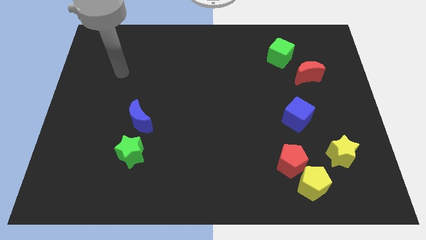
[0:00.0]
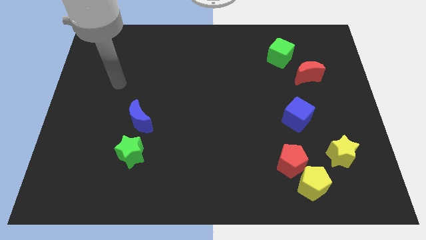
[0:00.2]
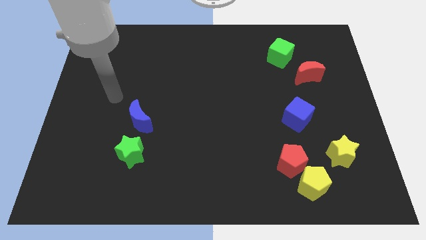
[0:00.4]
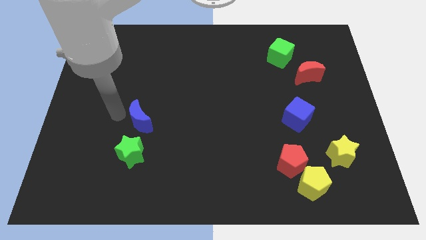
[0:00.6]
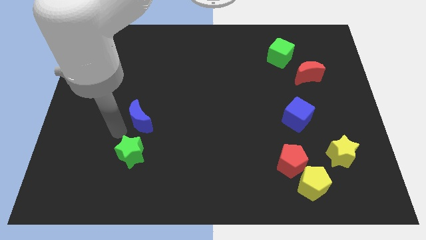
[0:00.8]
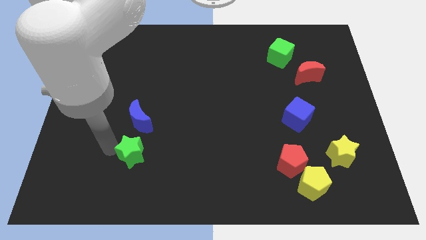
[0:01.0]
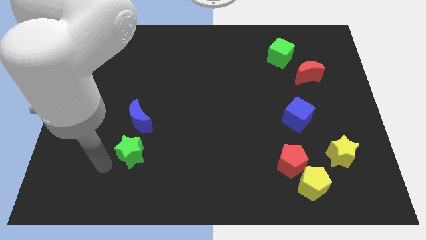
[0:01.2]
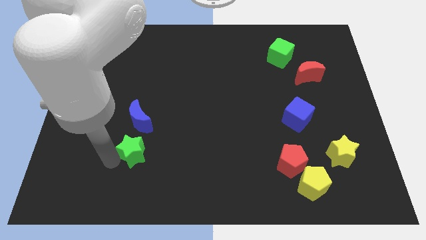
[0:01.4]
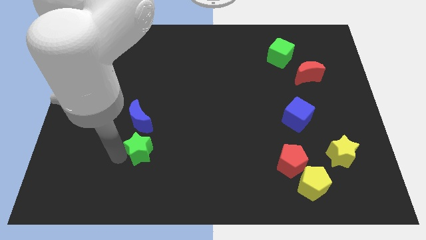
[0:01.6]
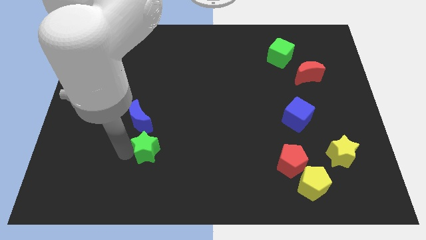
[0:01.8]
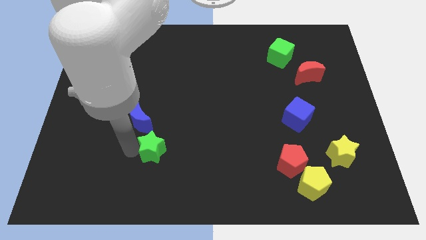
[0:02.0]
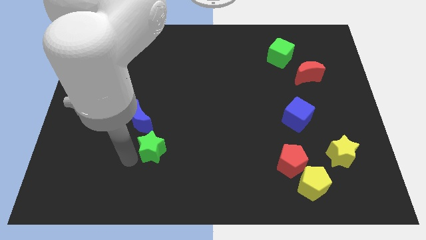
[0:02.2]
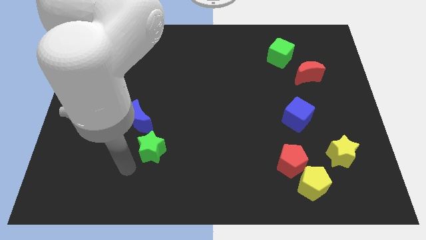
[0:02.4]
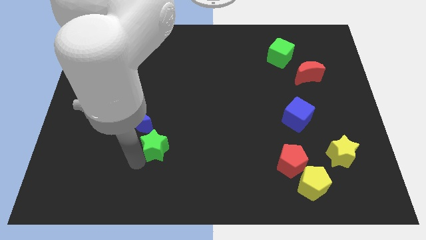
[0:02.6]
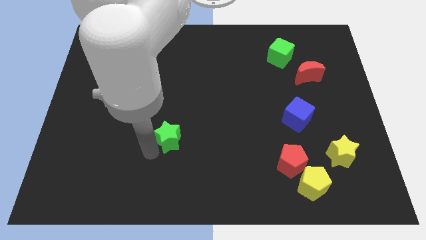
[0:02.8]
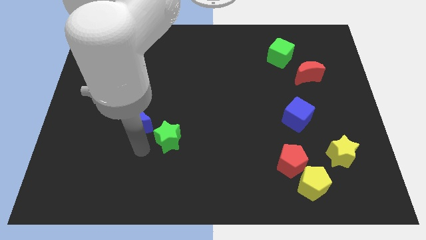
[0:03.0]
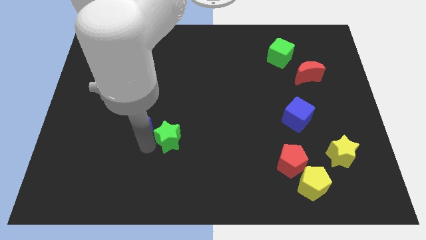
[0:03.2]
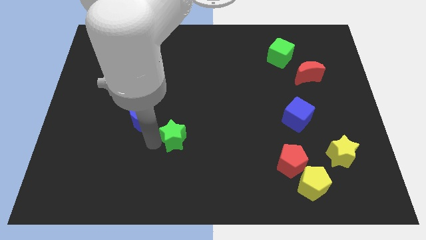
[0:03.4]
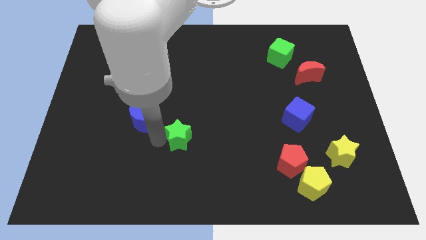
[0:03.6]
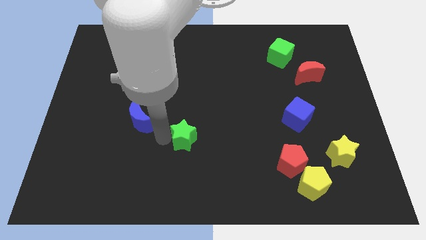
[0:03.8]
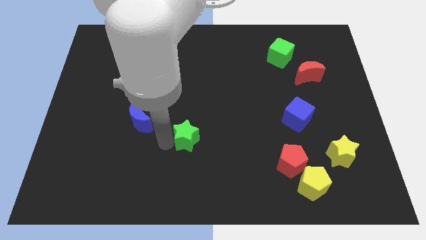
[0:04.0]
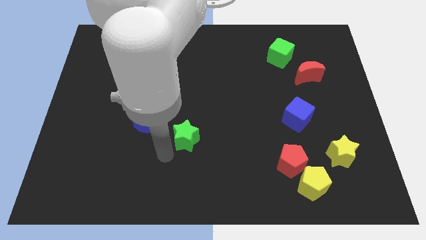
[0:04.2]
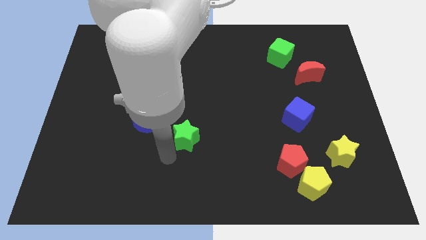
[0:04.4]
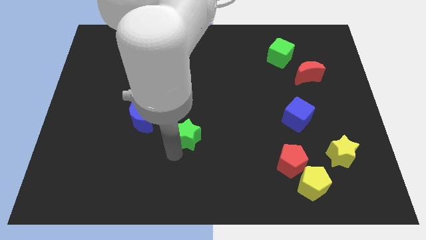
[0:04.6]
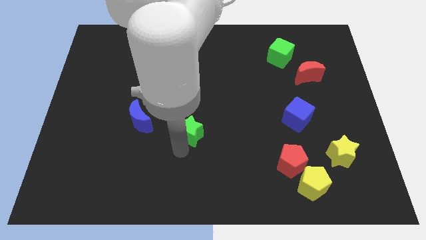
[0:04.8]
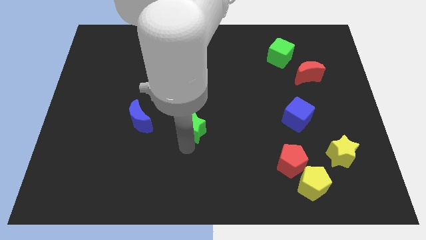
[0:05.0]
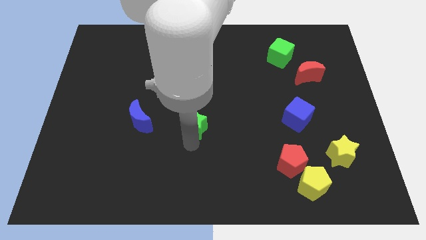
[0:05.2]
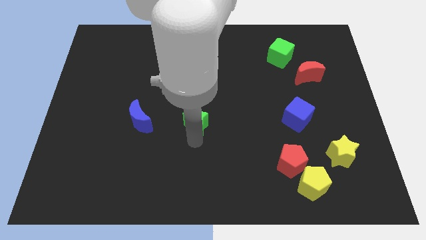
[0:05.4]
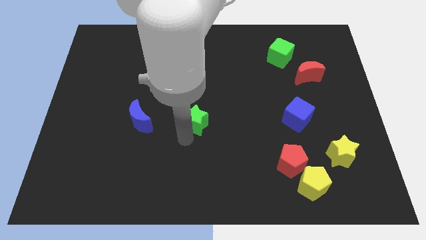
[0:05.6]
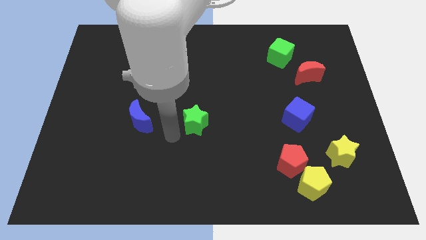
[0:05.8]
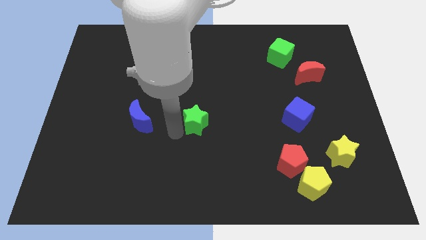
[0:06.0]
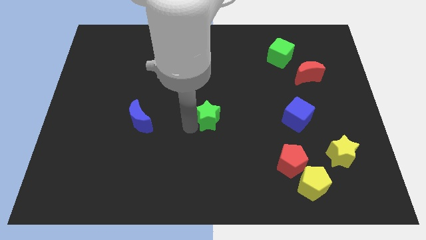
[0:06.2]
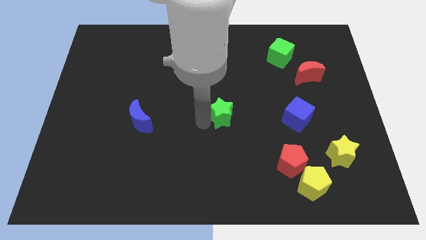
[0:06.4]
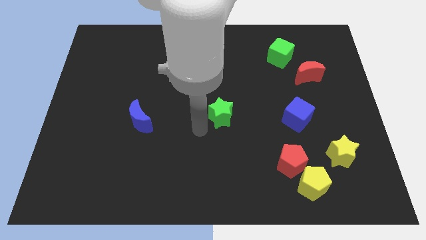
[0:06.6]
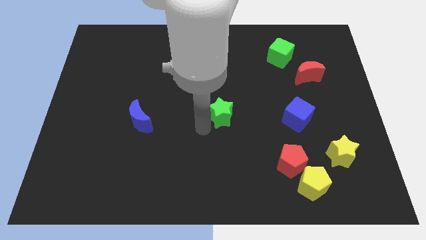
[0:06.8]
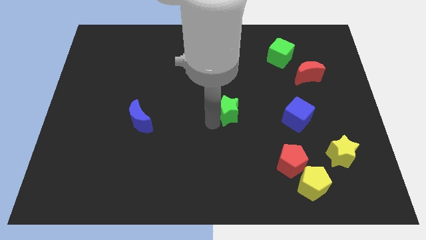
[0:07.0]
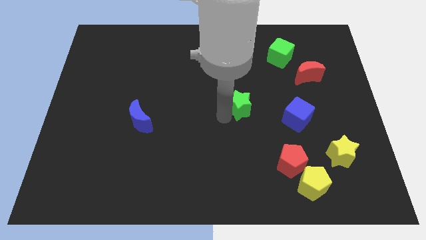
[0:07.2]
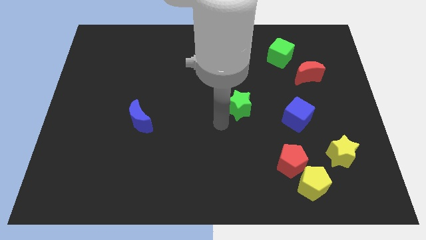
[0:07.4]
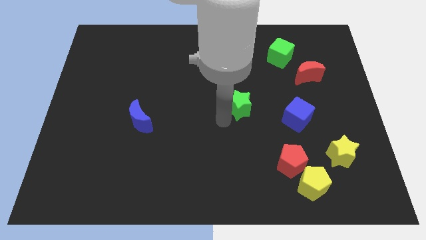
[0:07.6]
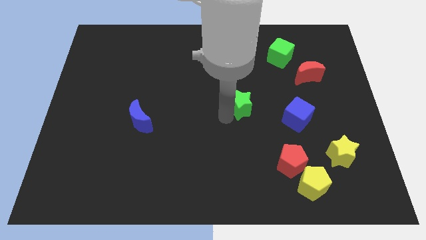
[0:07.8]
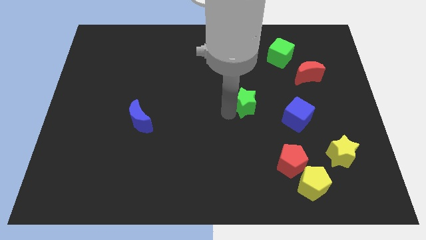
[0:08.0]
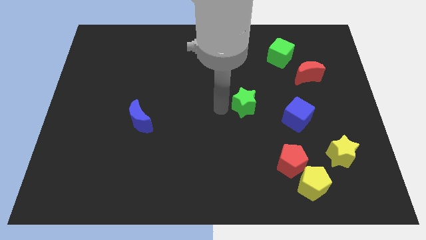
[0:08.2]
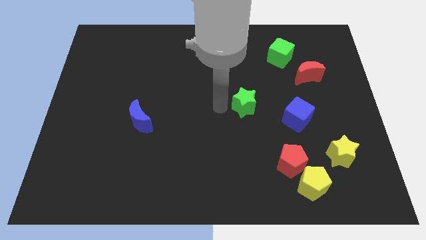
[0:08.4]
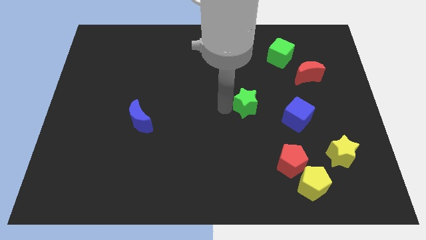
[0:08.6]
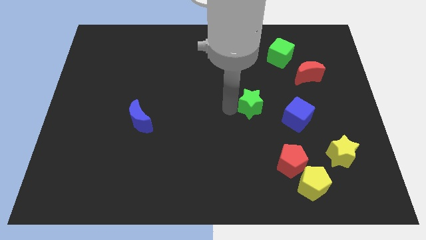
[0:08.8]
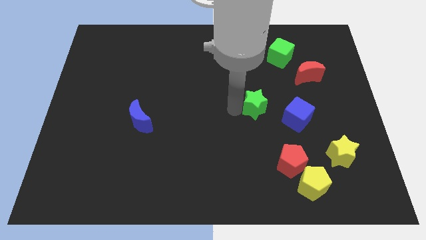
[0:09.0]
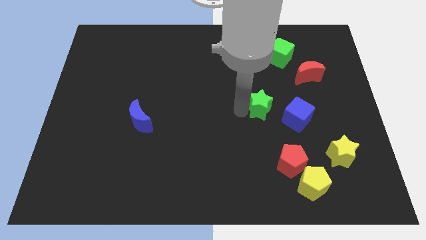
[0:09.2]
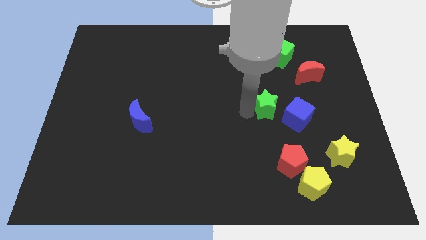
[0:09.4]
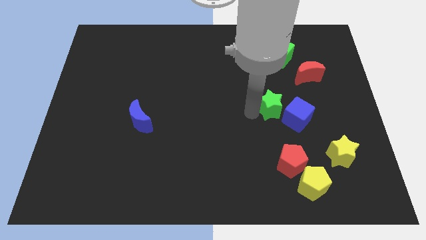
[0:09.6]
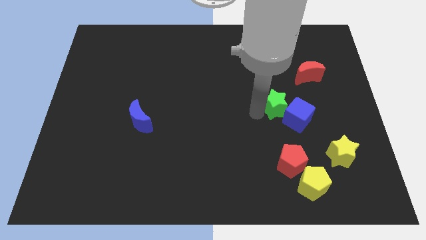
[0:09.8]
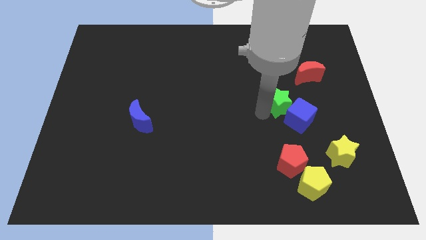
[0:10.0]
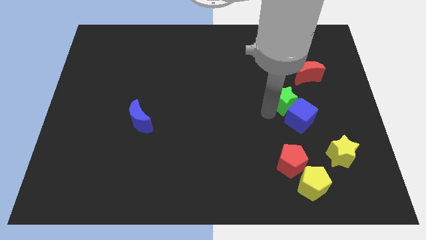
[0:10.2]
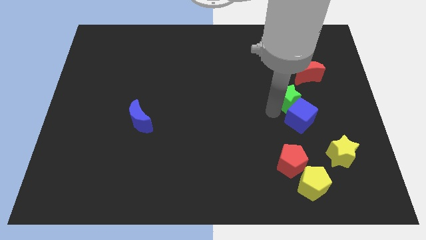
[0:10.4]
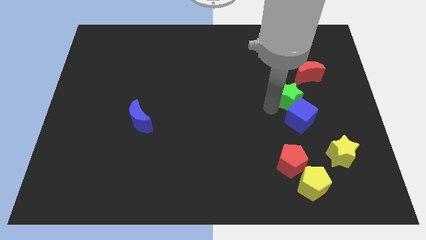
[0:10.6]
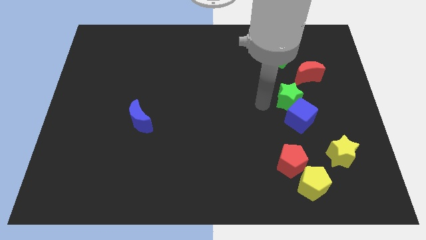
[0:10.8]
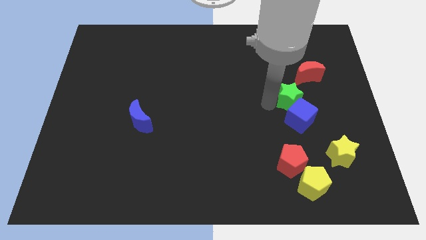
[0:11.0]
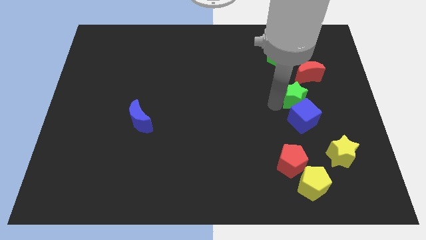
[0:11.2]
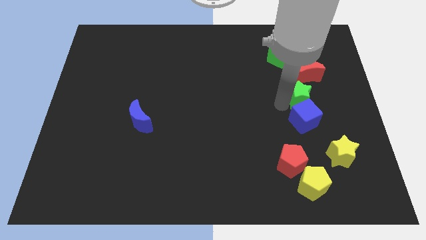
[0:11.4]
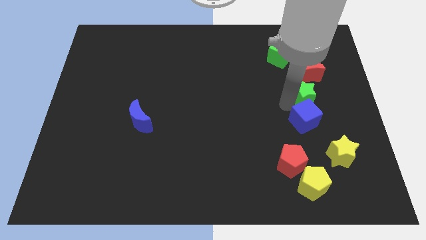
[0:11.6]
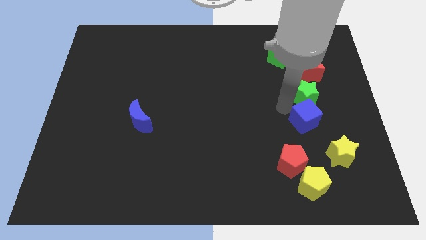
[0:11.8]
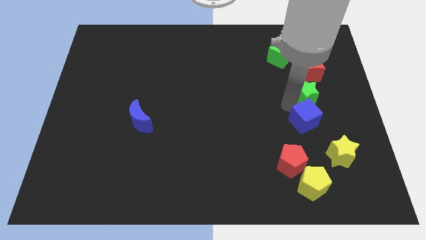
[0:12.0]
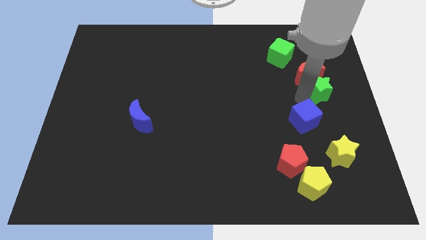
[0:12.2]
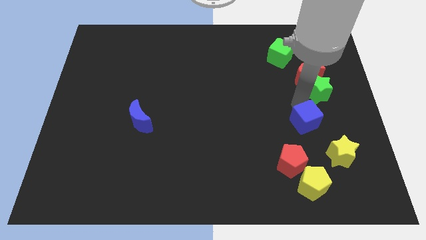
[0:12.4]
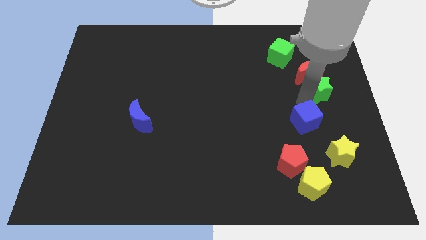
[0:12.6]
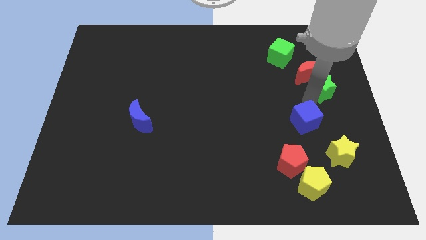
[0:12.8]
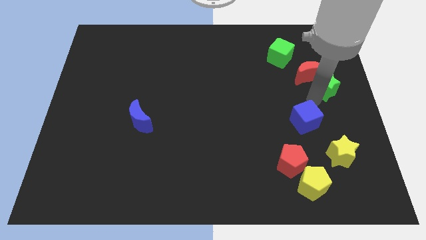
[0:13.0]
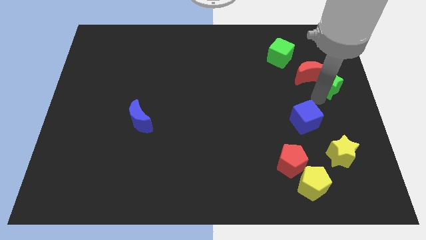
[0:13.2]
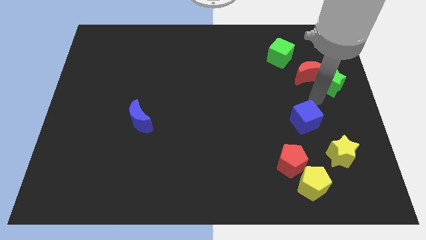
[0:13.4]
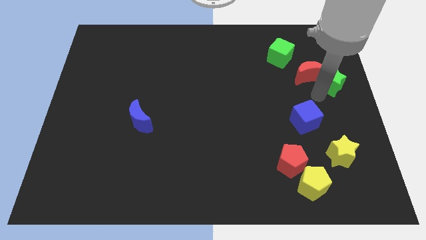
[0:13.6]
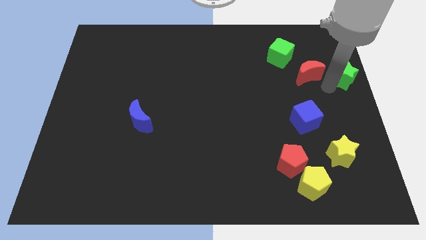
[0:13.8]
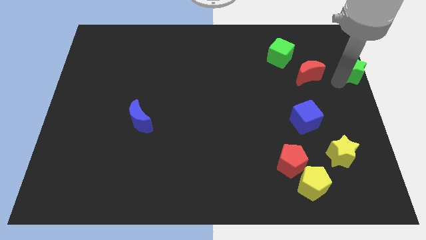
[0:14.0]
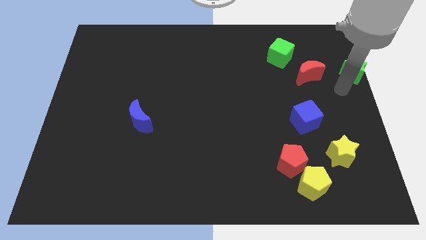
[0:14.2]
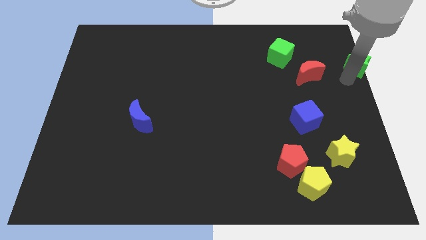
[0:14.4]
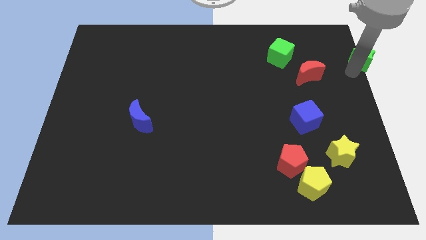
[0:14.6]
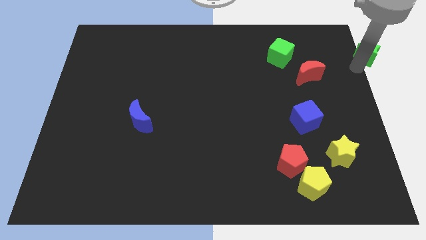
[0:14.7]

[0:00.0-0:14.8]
put the green star to the upper right corner
